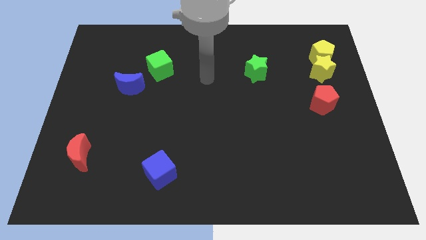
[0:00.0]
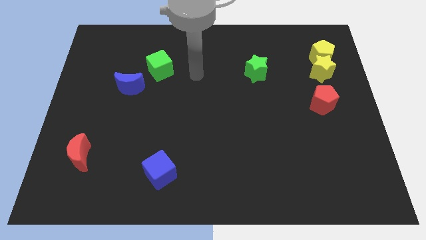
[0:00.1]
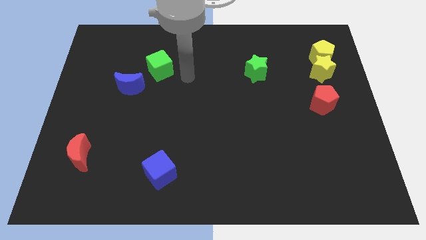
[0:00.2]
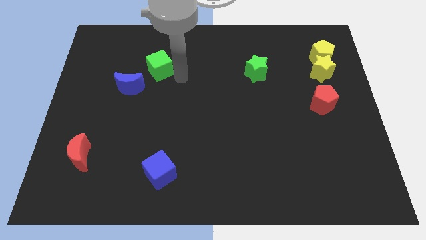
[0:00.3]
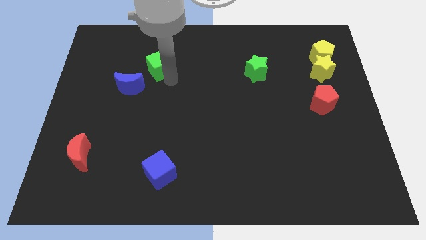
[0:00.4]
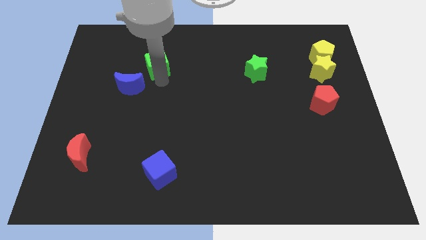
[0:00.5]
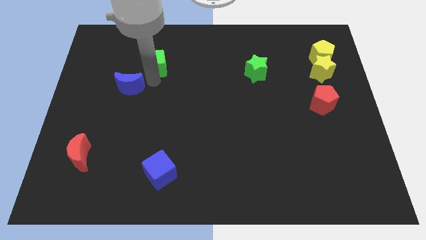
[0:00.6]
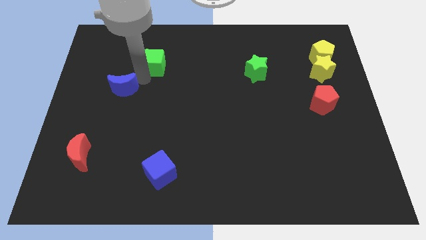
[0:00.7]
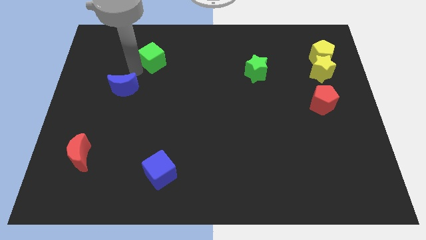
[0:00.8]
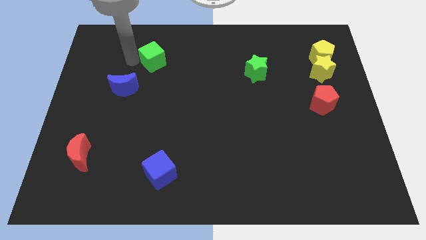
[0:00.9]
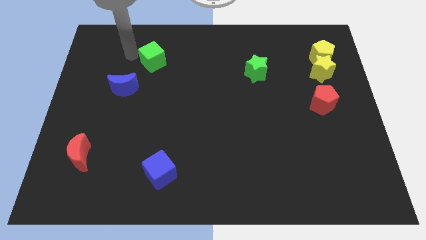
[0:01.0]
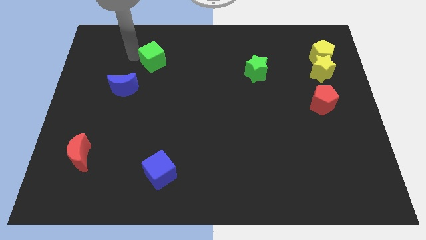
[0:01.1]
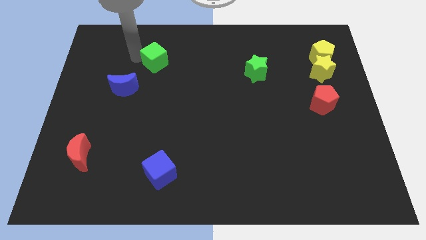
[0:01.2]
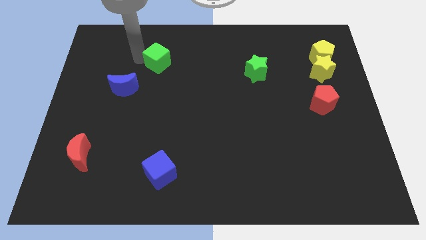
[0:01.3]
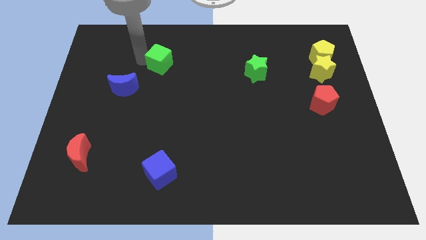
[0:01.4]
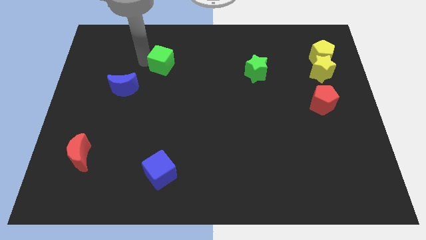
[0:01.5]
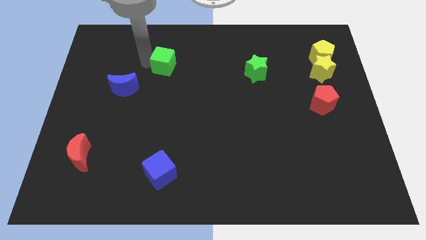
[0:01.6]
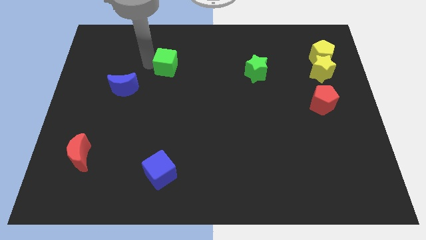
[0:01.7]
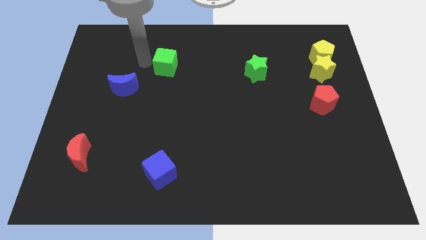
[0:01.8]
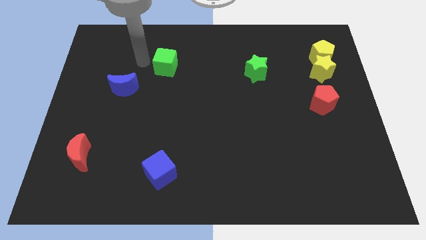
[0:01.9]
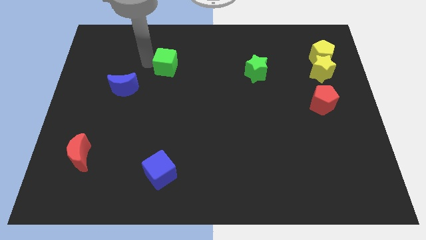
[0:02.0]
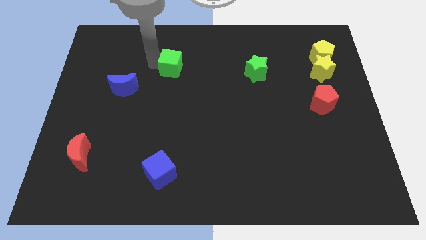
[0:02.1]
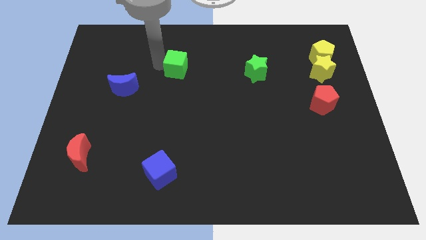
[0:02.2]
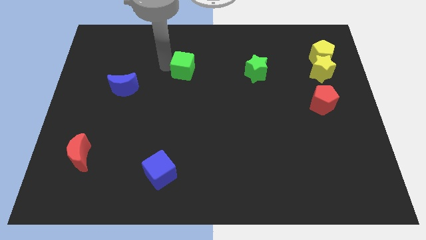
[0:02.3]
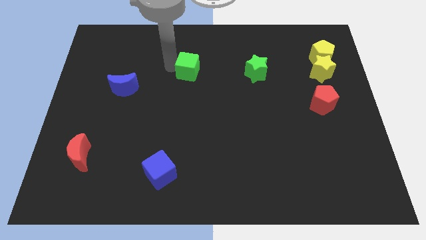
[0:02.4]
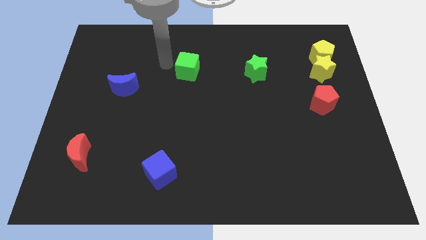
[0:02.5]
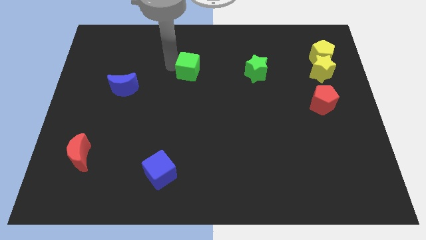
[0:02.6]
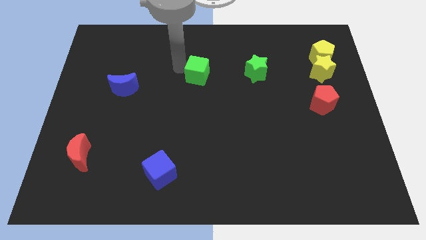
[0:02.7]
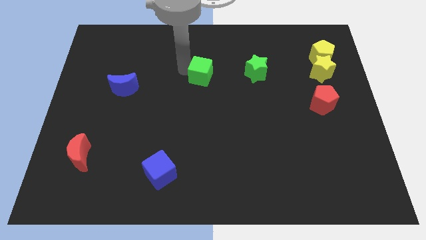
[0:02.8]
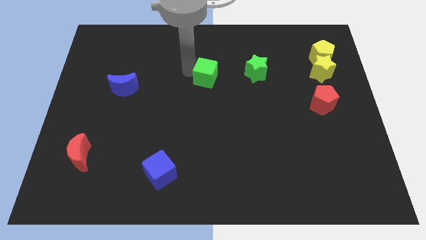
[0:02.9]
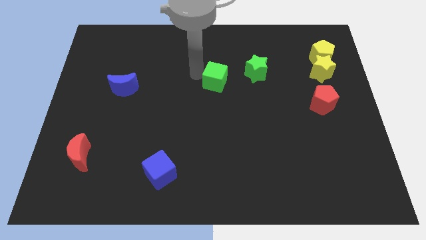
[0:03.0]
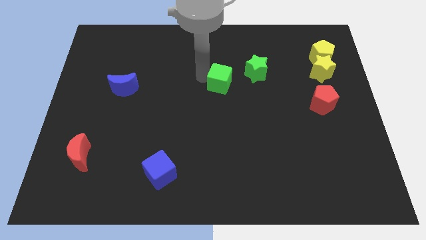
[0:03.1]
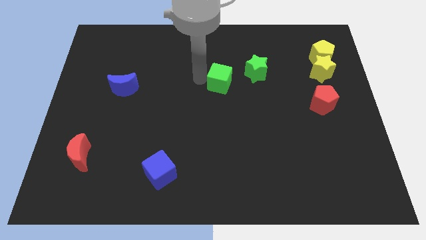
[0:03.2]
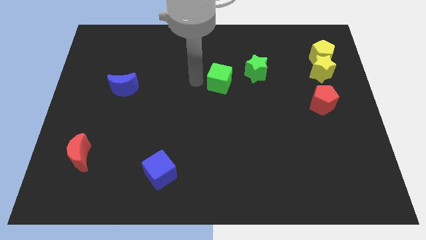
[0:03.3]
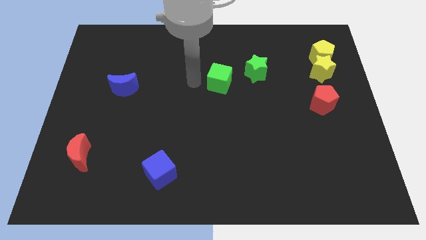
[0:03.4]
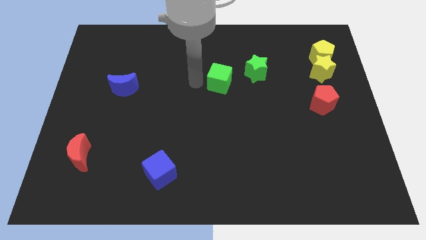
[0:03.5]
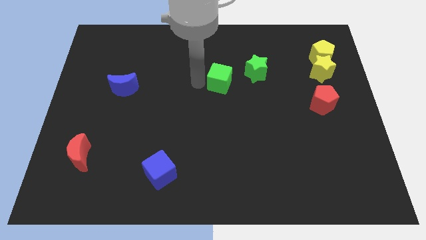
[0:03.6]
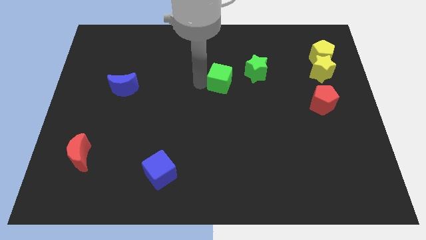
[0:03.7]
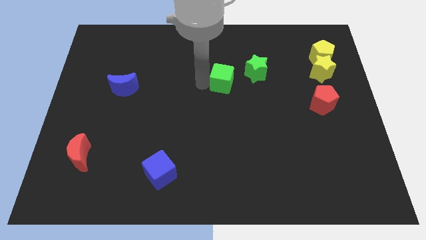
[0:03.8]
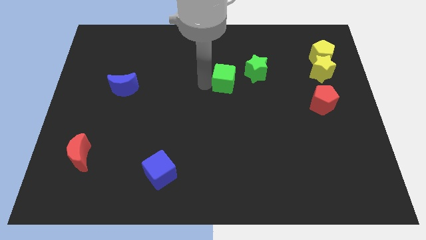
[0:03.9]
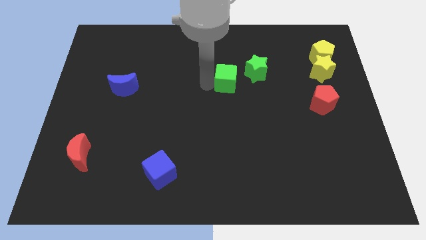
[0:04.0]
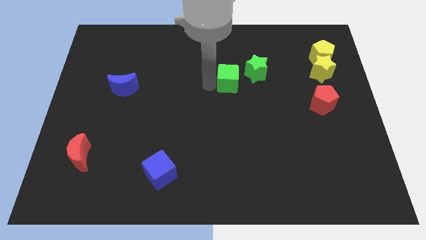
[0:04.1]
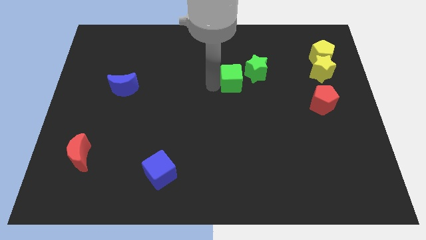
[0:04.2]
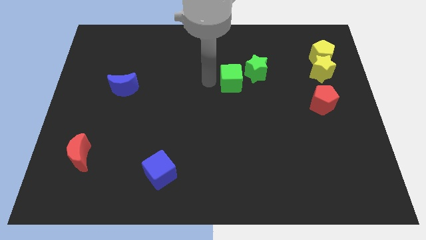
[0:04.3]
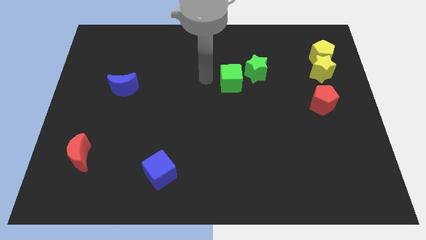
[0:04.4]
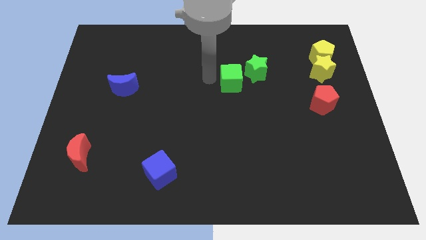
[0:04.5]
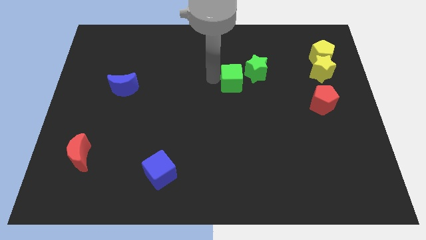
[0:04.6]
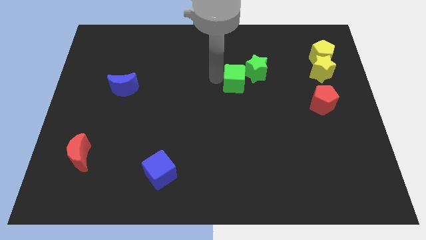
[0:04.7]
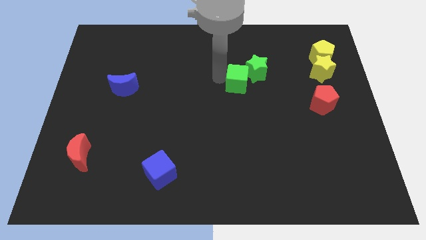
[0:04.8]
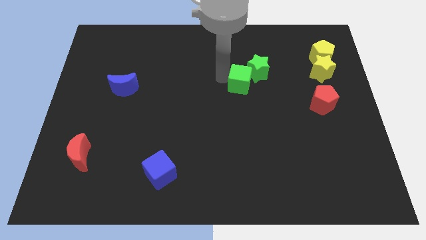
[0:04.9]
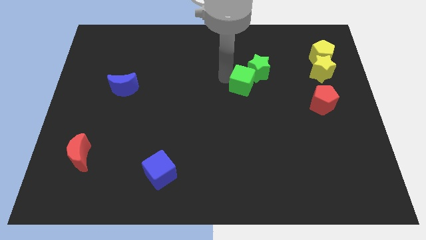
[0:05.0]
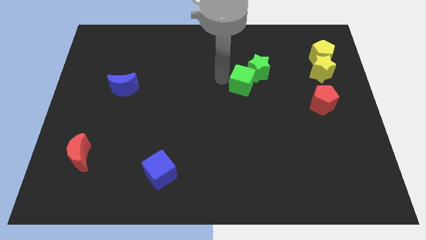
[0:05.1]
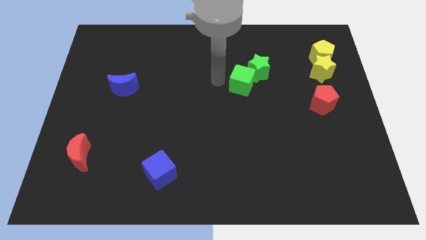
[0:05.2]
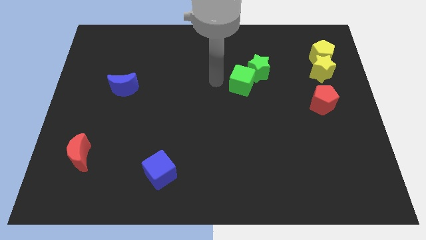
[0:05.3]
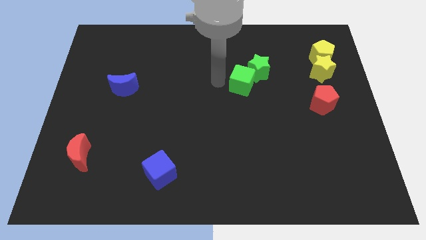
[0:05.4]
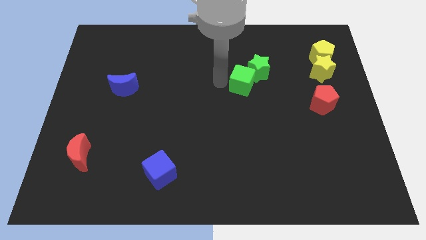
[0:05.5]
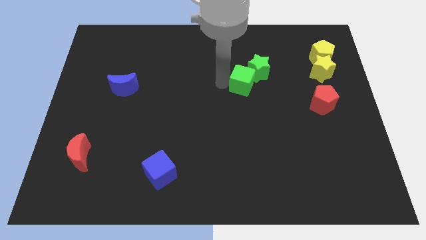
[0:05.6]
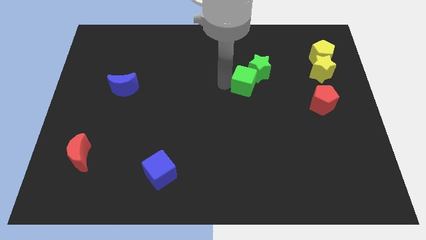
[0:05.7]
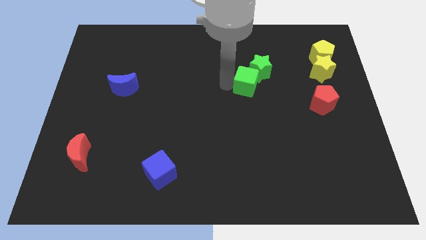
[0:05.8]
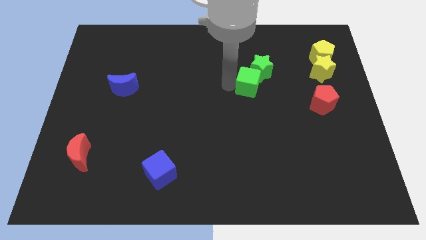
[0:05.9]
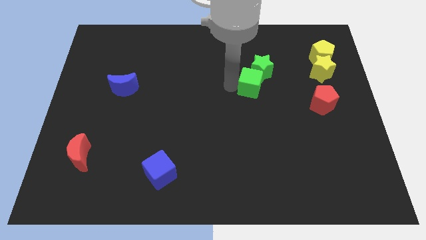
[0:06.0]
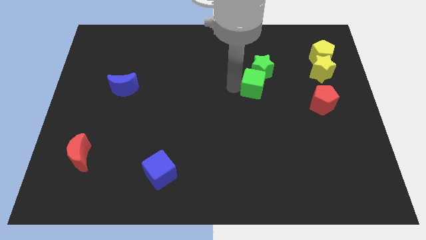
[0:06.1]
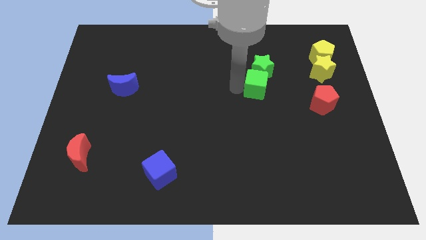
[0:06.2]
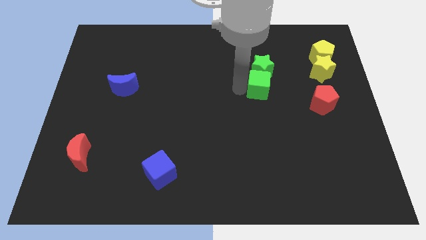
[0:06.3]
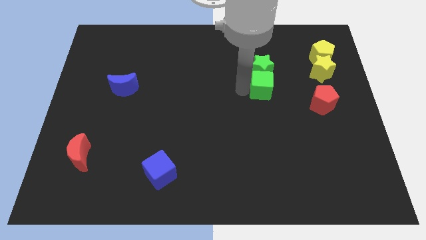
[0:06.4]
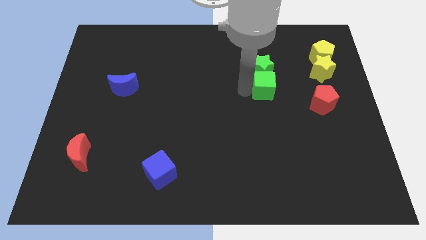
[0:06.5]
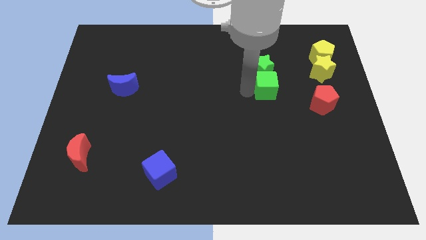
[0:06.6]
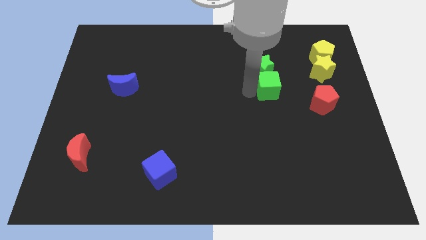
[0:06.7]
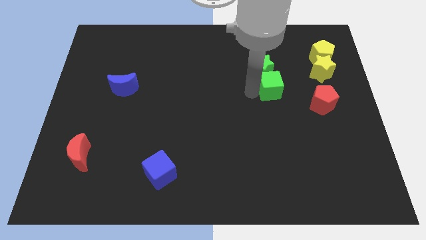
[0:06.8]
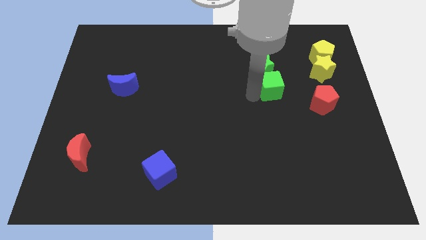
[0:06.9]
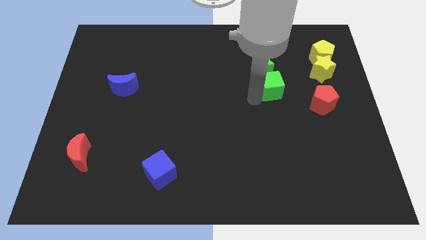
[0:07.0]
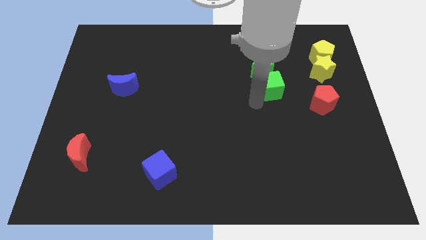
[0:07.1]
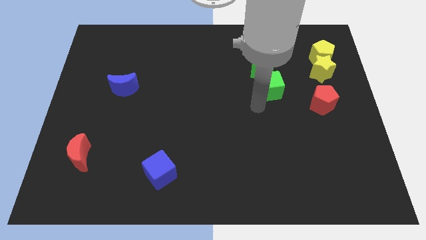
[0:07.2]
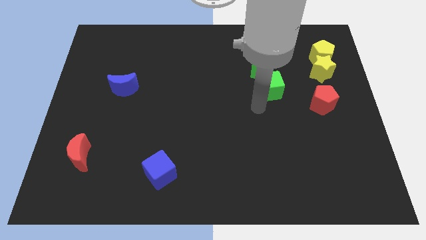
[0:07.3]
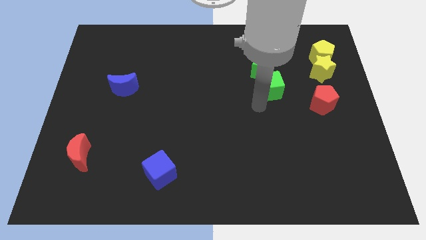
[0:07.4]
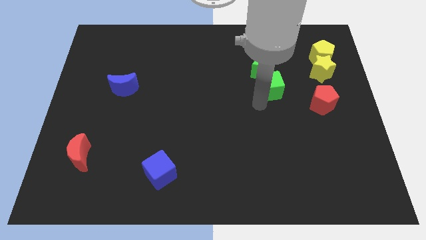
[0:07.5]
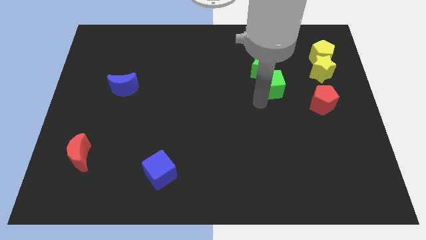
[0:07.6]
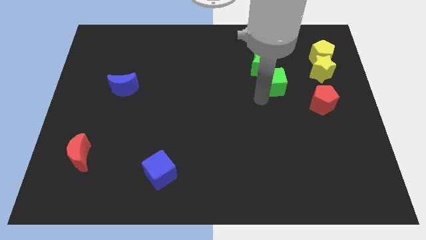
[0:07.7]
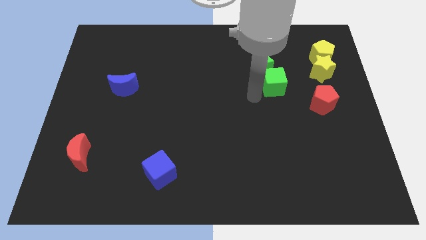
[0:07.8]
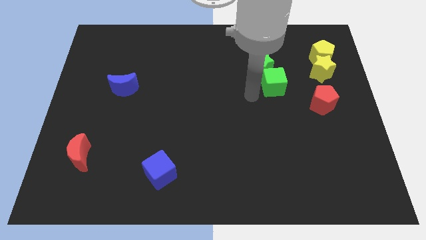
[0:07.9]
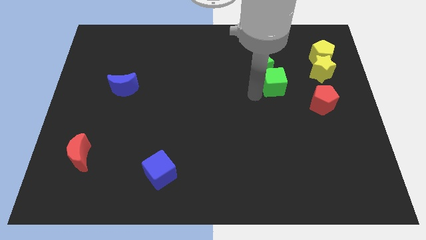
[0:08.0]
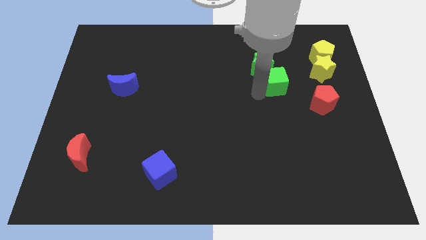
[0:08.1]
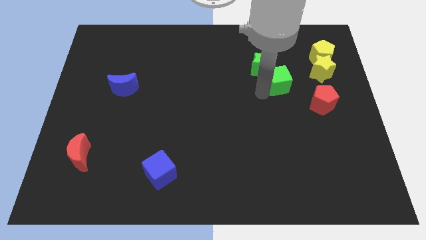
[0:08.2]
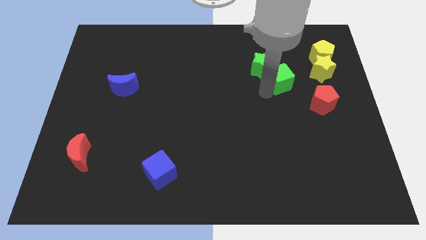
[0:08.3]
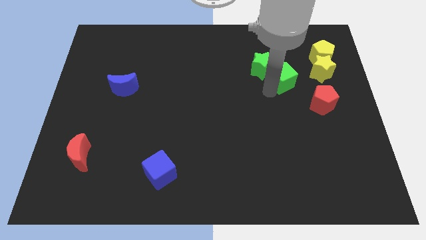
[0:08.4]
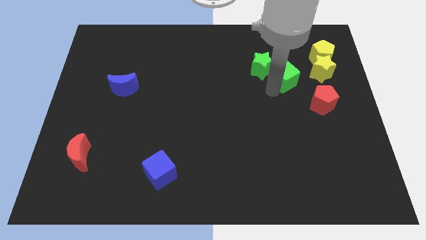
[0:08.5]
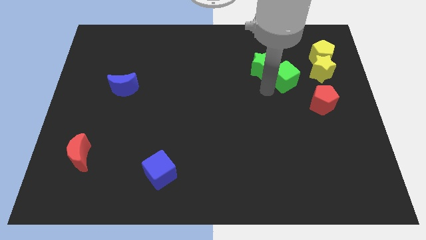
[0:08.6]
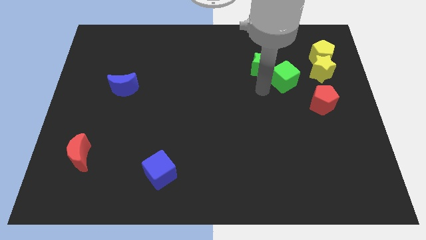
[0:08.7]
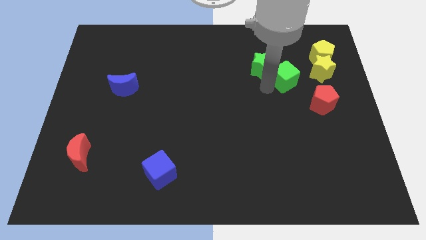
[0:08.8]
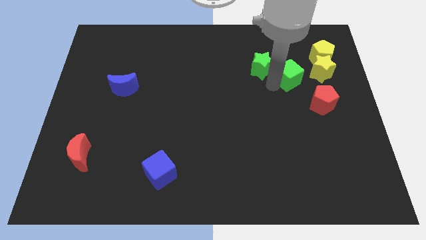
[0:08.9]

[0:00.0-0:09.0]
move the green cube diagonally down and to the left of the yellow pentagon
